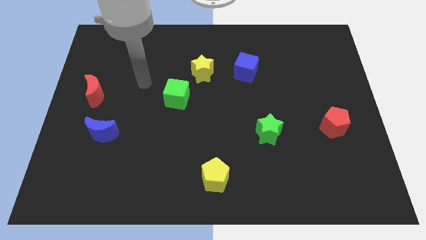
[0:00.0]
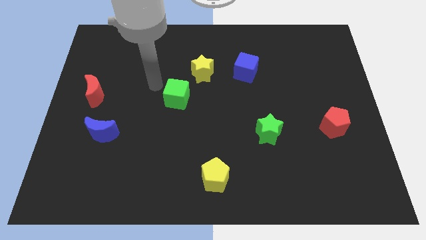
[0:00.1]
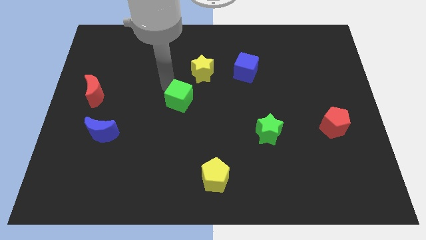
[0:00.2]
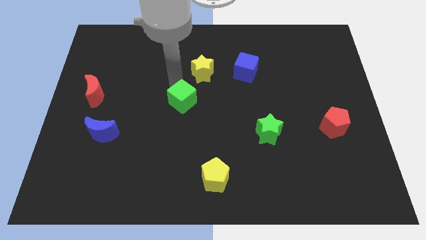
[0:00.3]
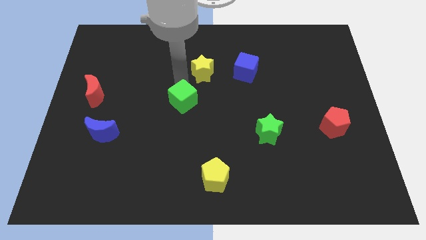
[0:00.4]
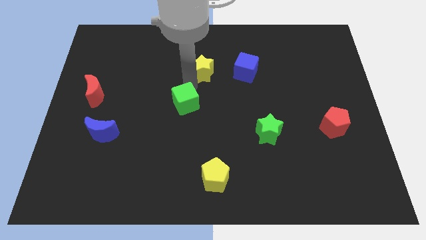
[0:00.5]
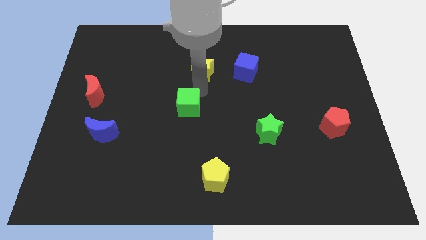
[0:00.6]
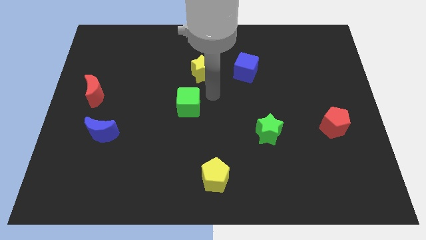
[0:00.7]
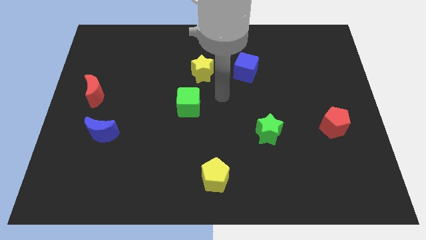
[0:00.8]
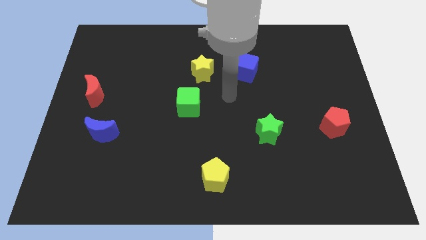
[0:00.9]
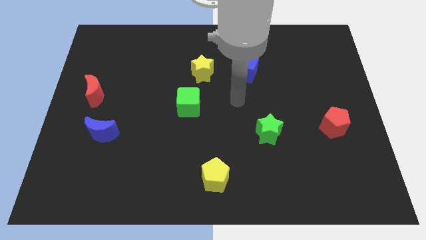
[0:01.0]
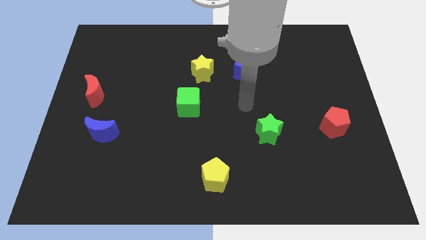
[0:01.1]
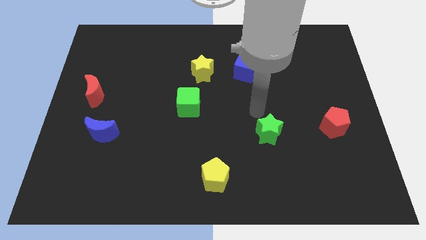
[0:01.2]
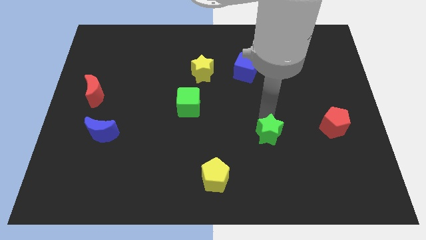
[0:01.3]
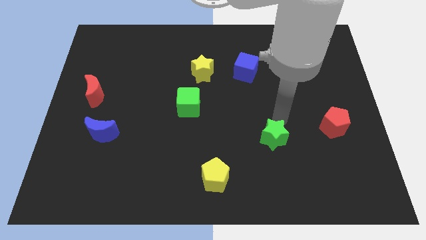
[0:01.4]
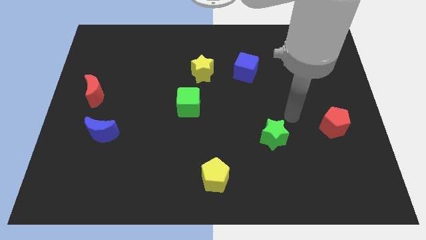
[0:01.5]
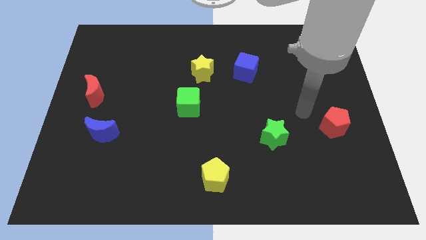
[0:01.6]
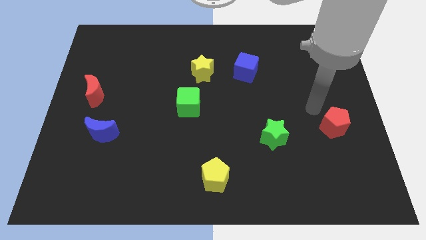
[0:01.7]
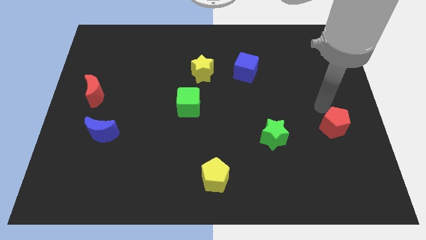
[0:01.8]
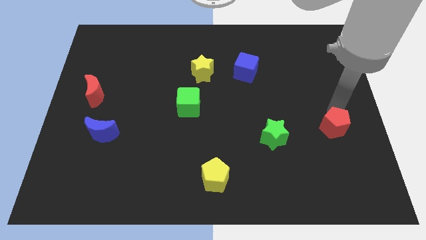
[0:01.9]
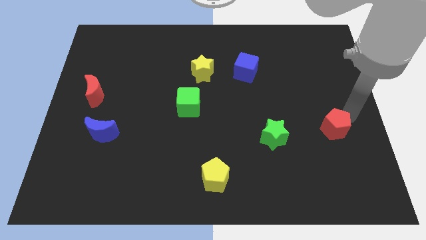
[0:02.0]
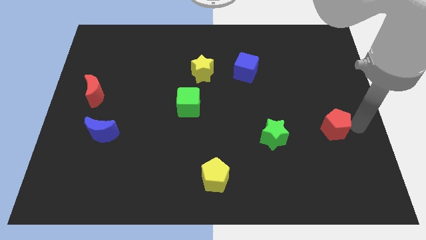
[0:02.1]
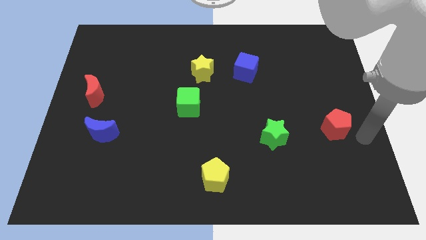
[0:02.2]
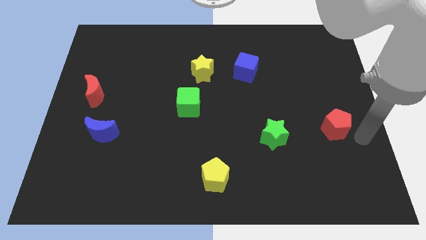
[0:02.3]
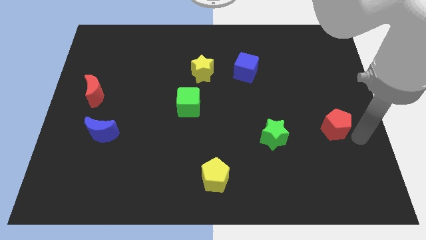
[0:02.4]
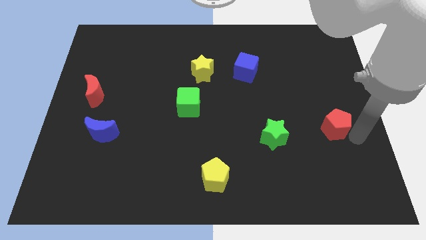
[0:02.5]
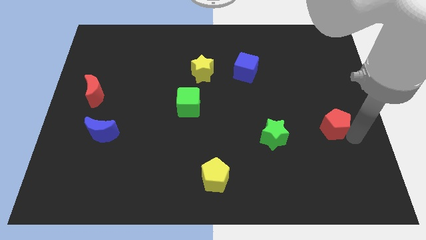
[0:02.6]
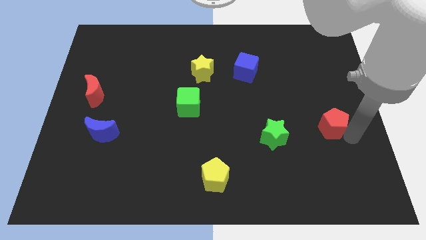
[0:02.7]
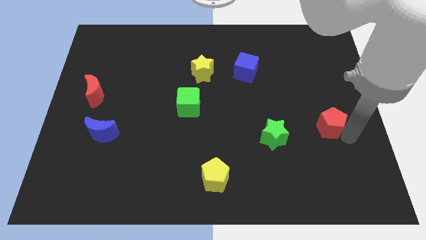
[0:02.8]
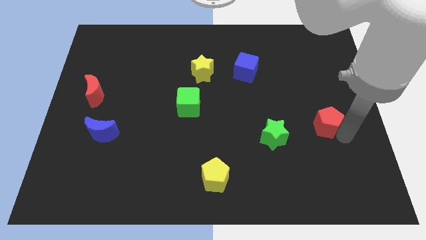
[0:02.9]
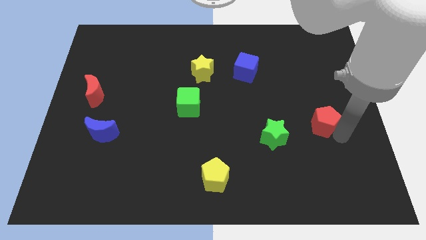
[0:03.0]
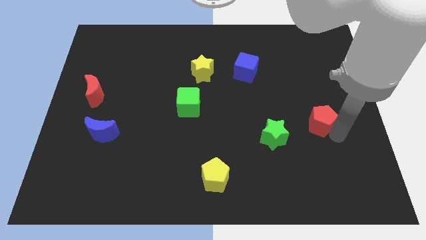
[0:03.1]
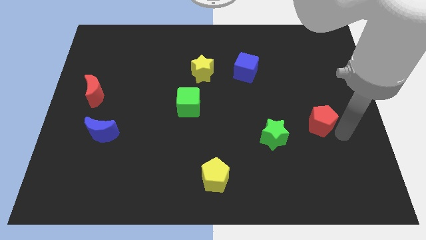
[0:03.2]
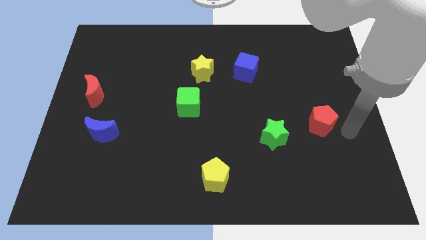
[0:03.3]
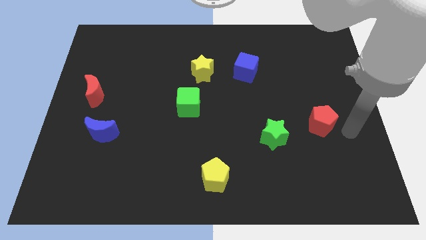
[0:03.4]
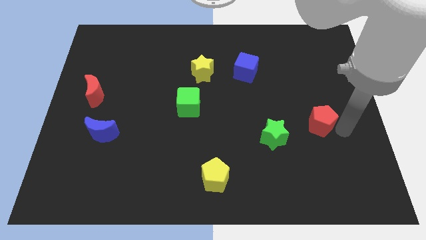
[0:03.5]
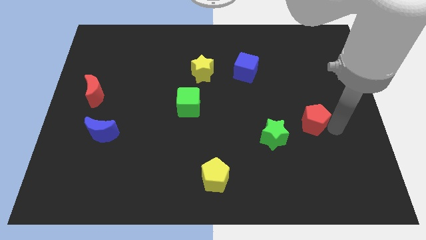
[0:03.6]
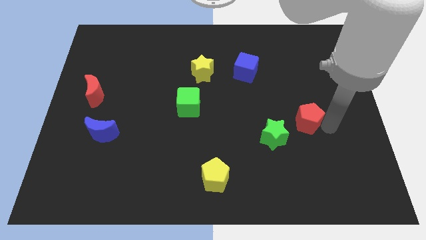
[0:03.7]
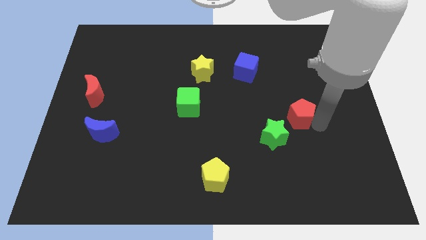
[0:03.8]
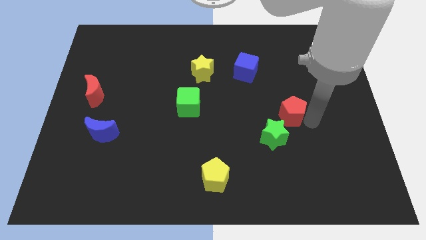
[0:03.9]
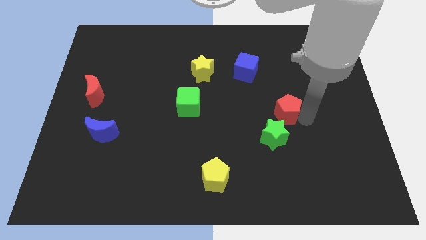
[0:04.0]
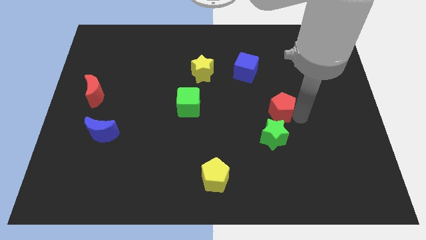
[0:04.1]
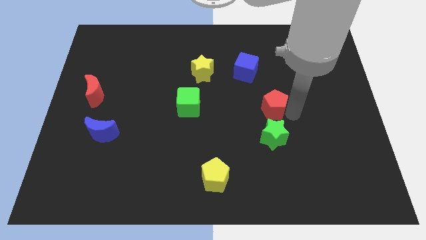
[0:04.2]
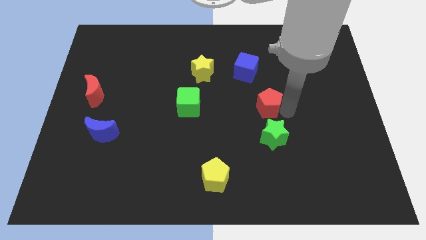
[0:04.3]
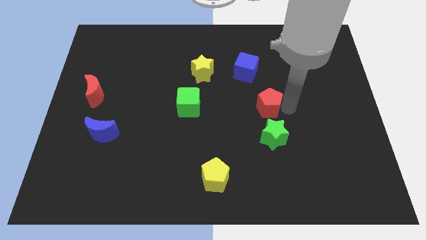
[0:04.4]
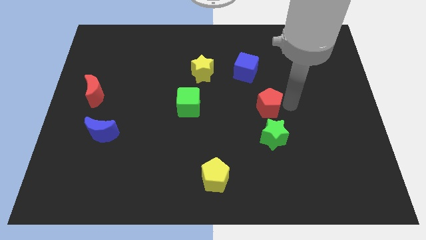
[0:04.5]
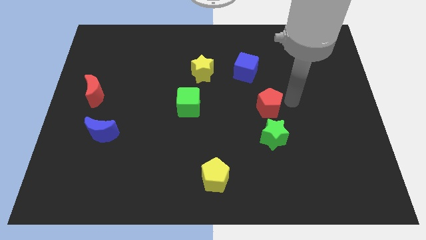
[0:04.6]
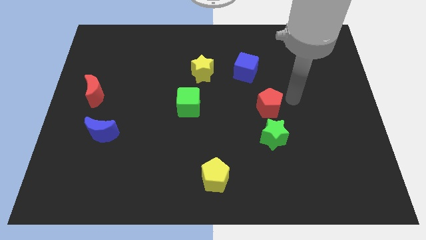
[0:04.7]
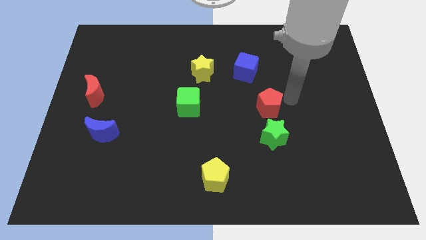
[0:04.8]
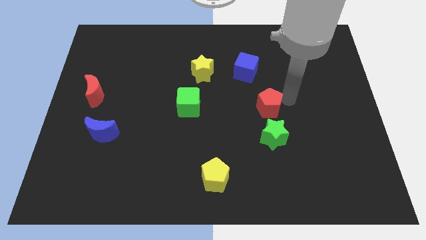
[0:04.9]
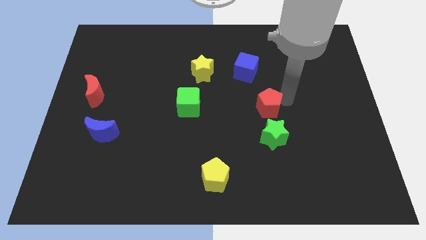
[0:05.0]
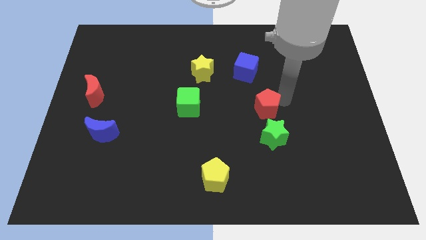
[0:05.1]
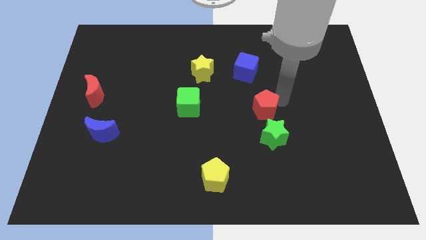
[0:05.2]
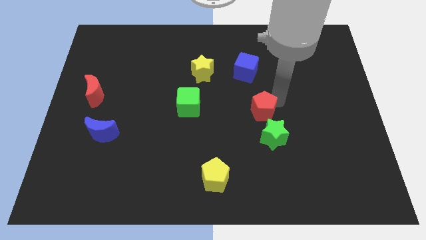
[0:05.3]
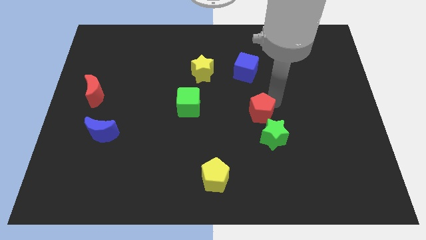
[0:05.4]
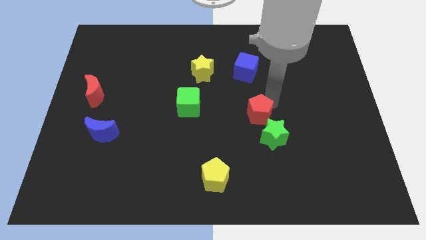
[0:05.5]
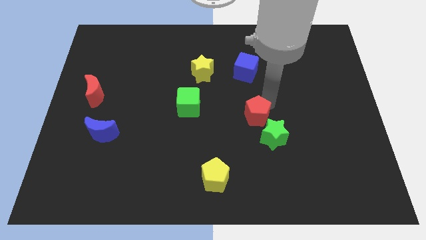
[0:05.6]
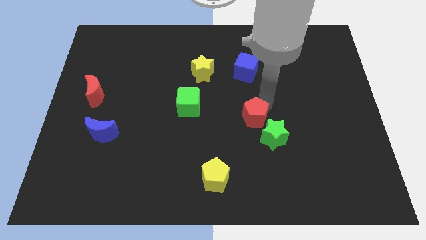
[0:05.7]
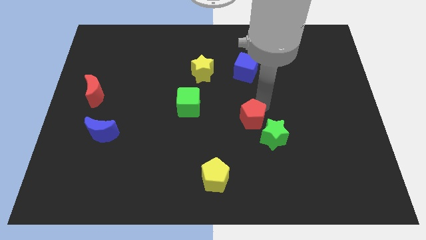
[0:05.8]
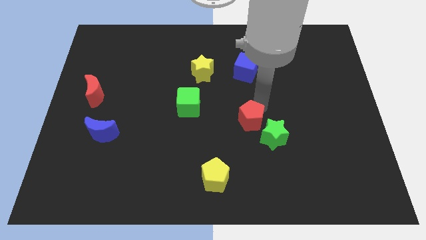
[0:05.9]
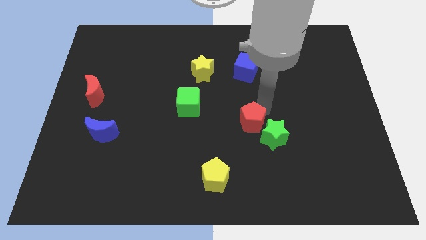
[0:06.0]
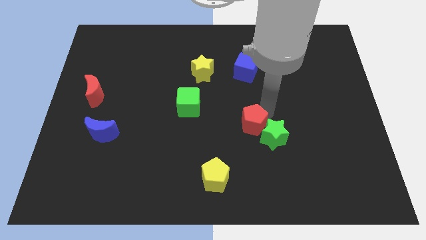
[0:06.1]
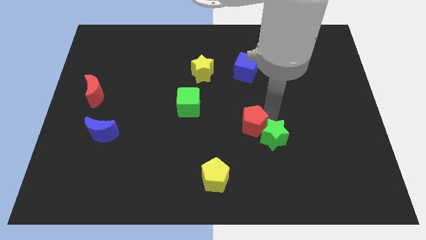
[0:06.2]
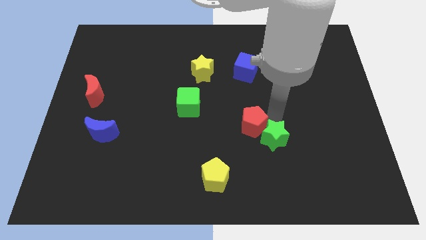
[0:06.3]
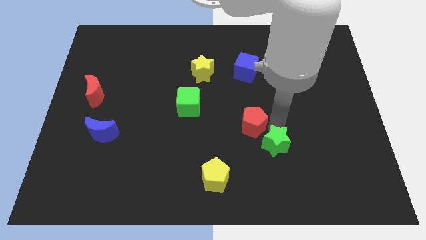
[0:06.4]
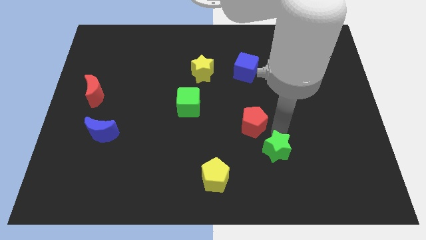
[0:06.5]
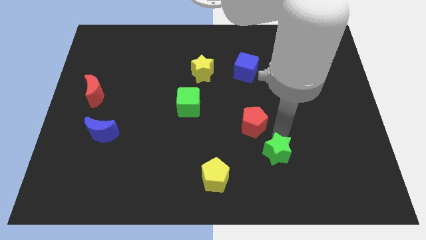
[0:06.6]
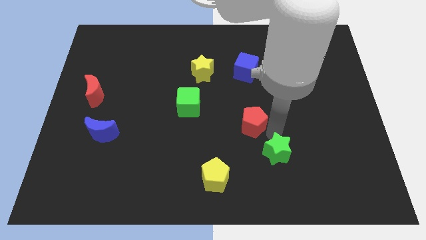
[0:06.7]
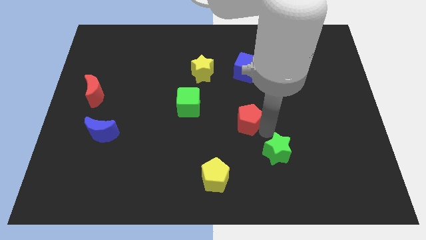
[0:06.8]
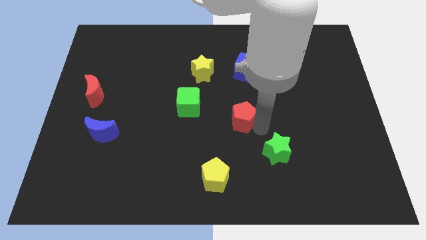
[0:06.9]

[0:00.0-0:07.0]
slide the red pentagon left

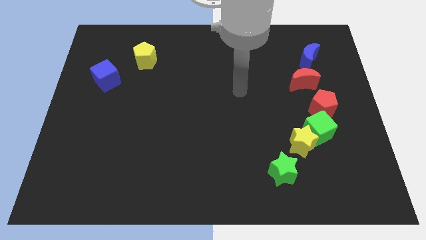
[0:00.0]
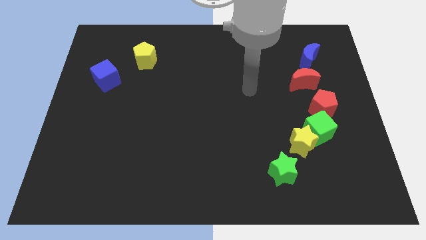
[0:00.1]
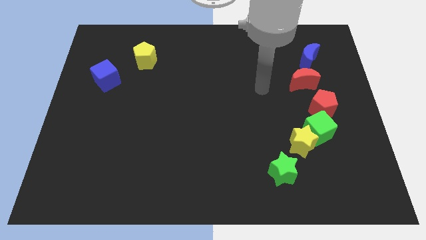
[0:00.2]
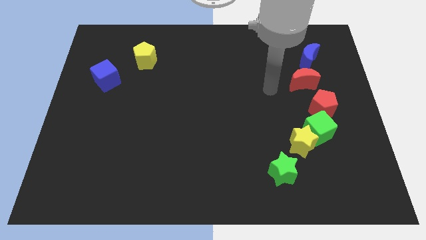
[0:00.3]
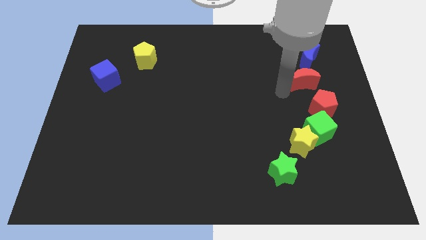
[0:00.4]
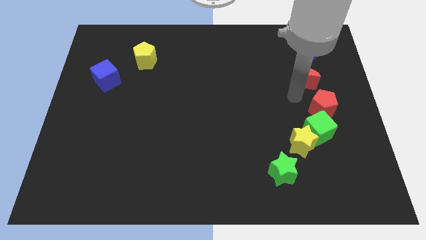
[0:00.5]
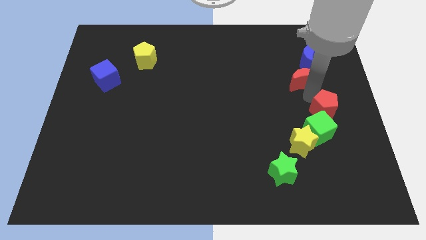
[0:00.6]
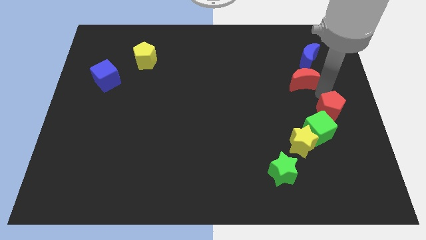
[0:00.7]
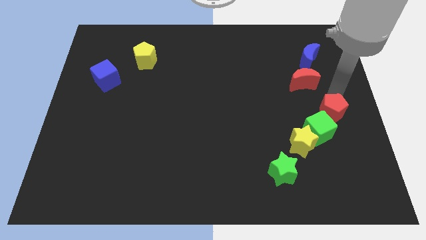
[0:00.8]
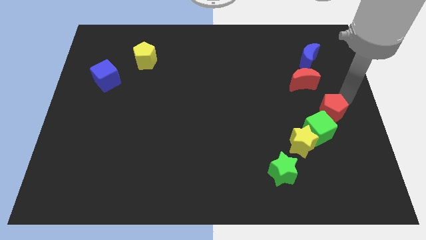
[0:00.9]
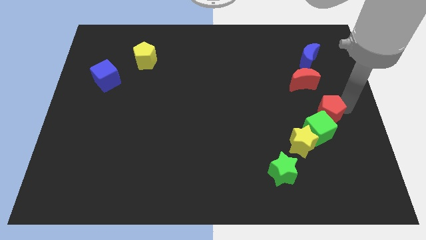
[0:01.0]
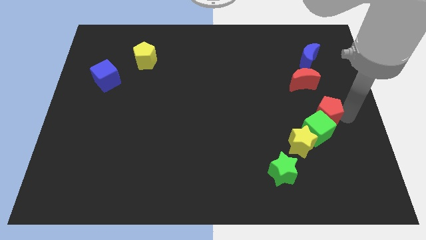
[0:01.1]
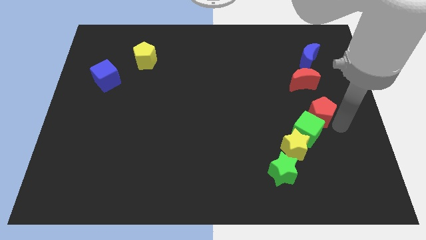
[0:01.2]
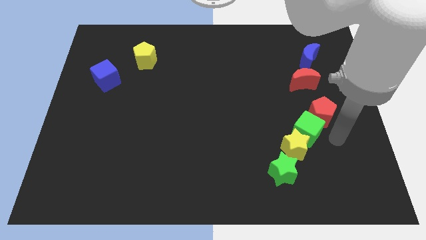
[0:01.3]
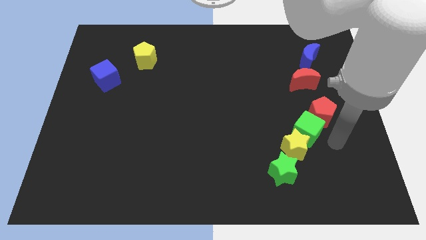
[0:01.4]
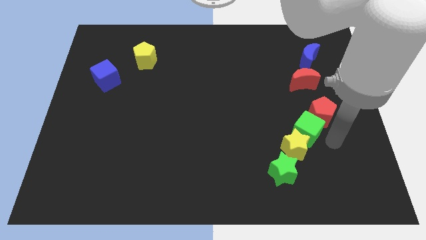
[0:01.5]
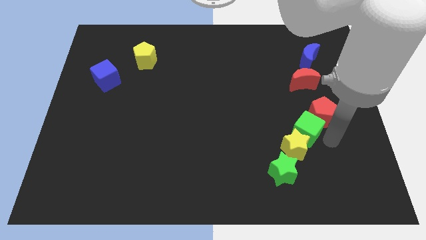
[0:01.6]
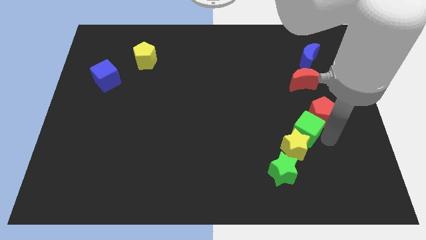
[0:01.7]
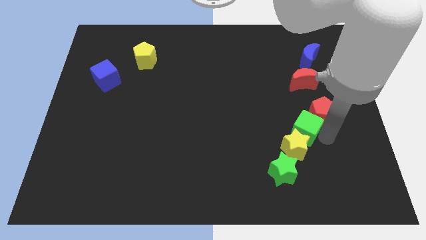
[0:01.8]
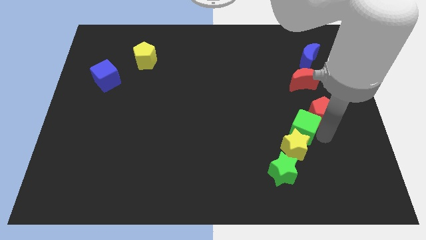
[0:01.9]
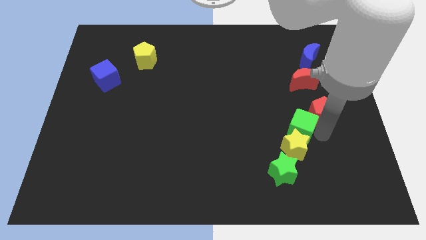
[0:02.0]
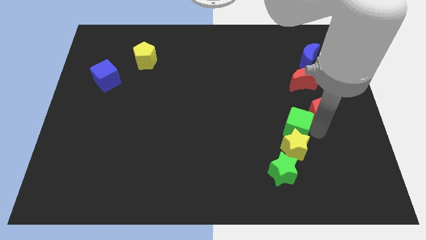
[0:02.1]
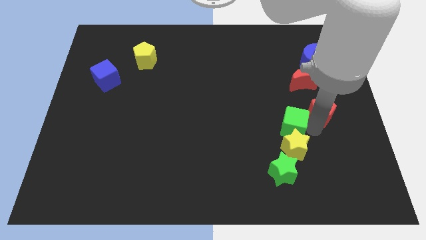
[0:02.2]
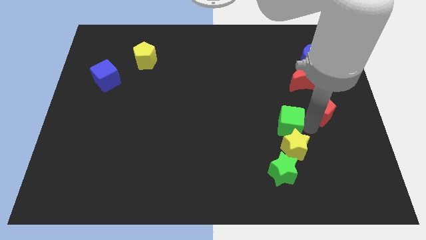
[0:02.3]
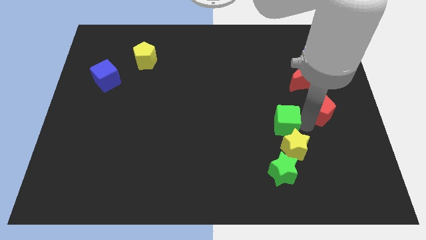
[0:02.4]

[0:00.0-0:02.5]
push the green cube somewhat to the left
